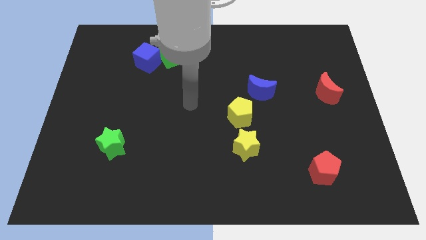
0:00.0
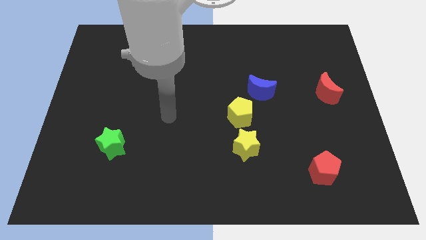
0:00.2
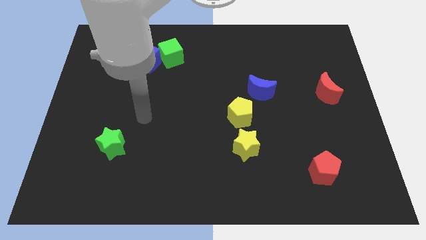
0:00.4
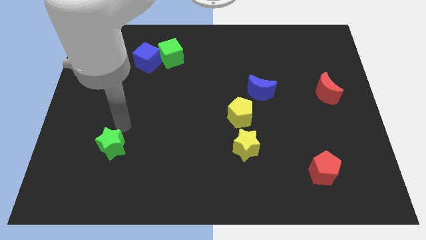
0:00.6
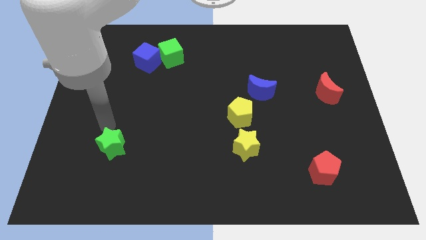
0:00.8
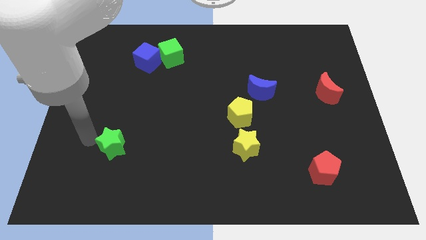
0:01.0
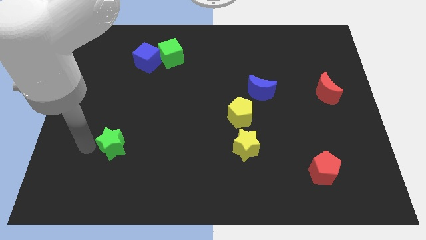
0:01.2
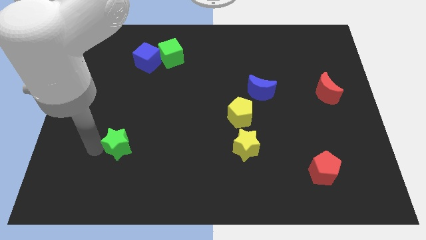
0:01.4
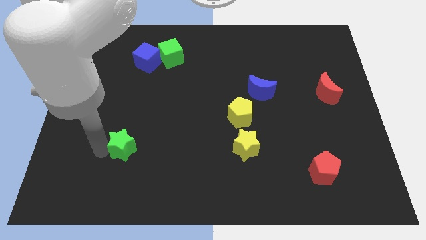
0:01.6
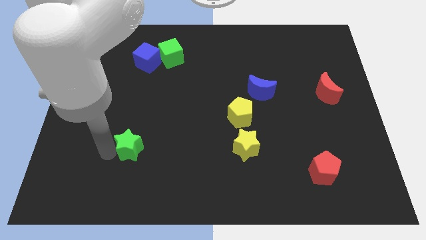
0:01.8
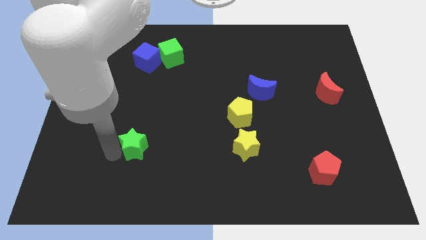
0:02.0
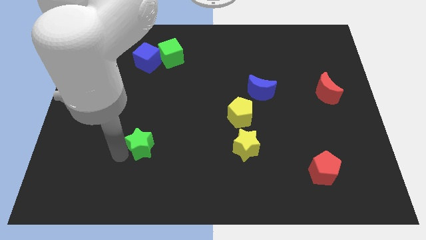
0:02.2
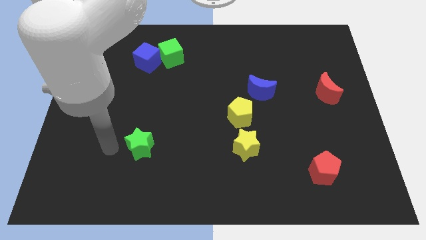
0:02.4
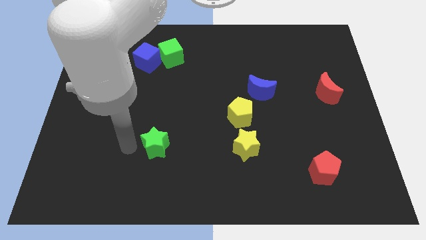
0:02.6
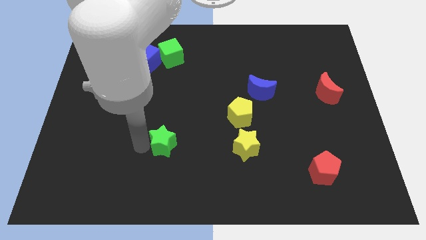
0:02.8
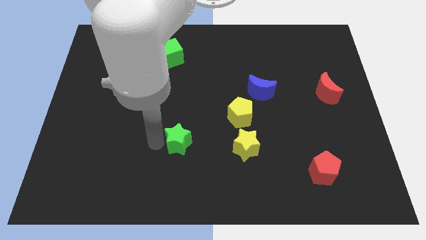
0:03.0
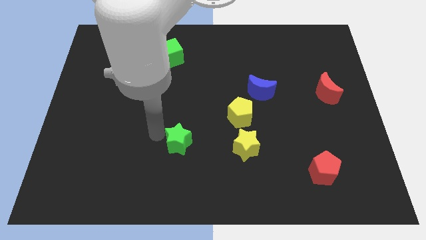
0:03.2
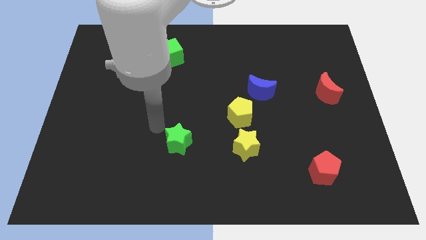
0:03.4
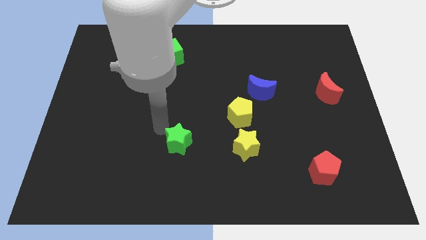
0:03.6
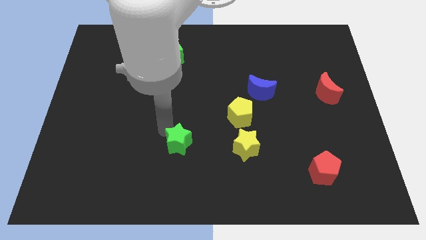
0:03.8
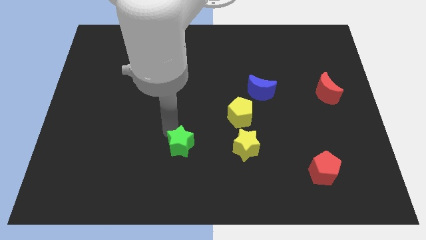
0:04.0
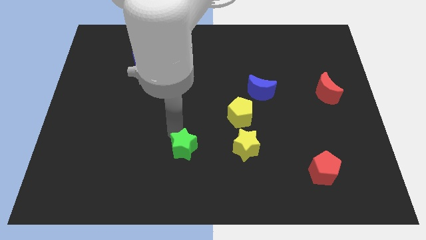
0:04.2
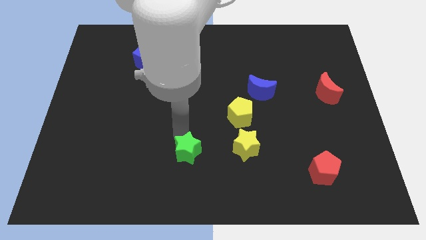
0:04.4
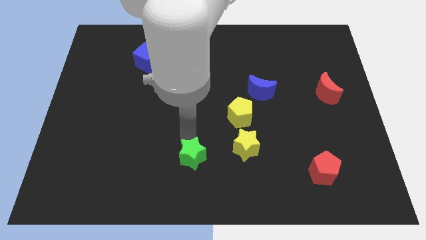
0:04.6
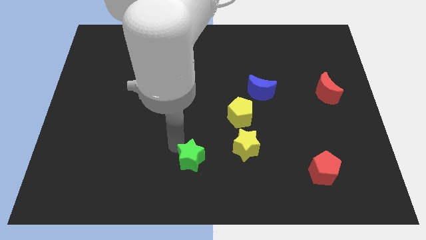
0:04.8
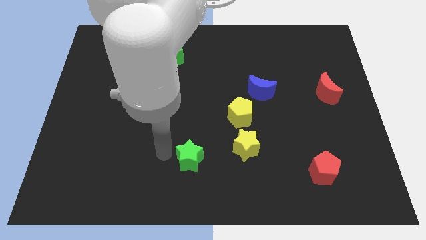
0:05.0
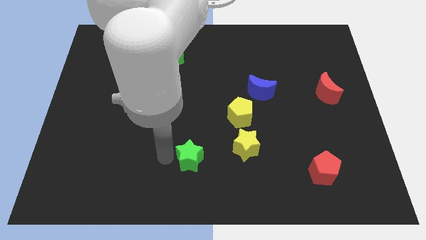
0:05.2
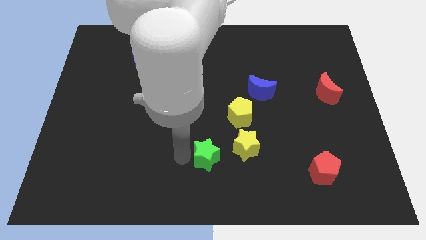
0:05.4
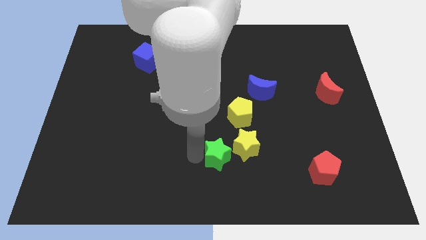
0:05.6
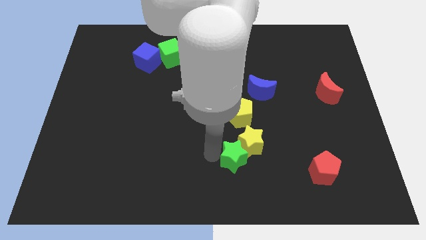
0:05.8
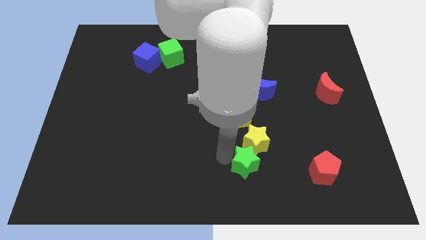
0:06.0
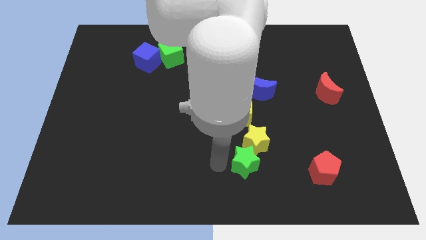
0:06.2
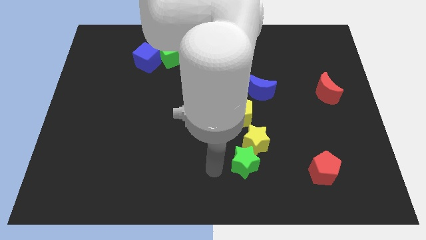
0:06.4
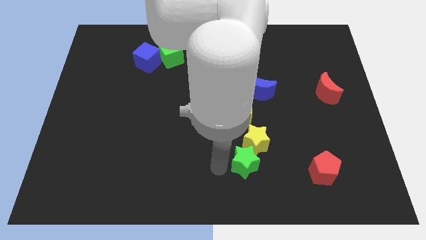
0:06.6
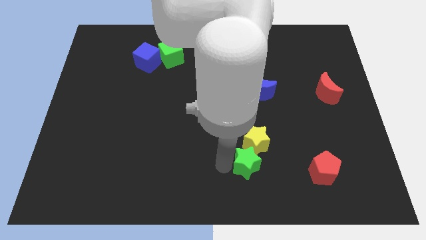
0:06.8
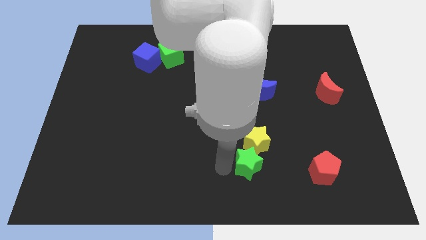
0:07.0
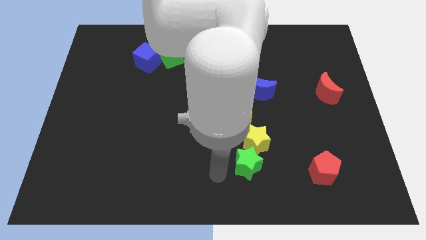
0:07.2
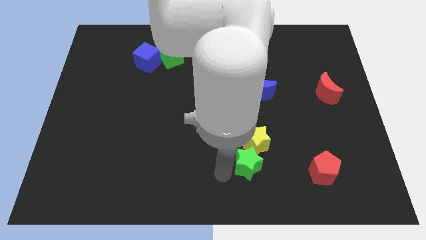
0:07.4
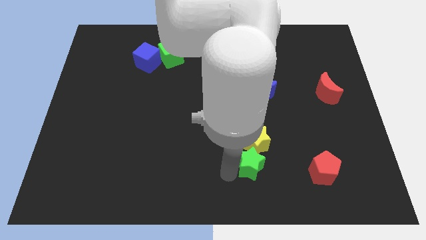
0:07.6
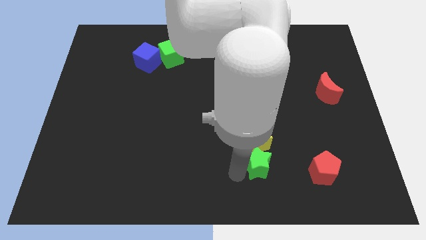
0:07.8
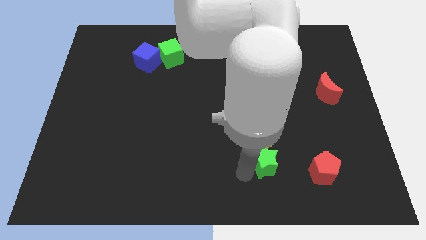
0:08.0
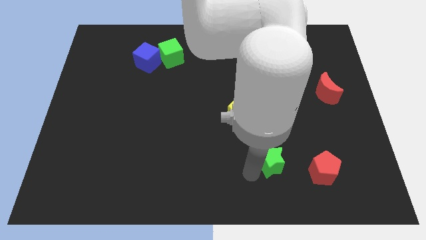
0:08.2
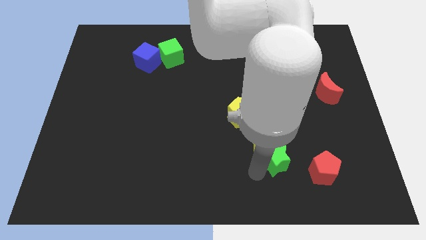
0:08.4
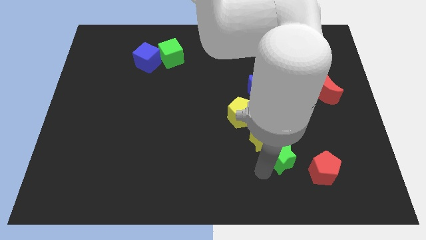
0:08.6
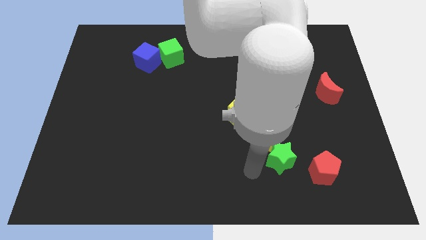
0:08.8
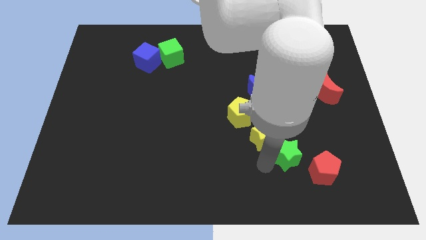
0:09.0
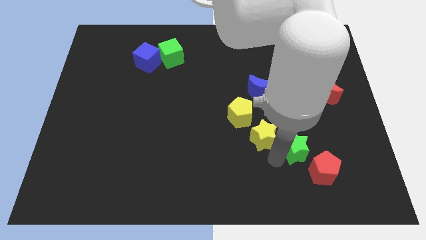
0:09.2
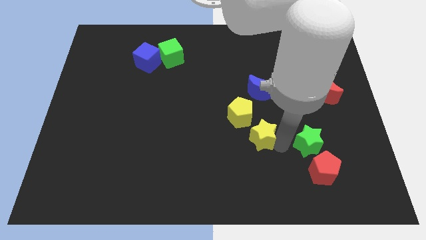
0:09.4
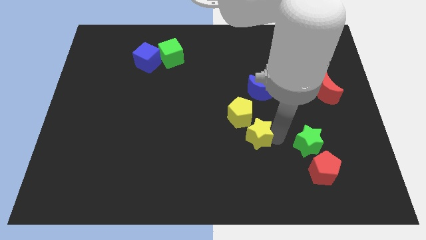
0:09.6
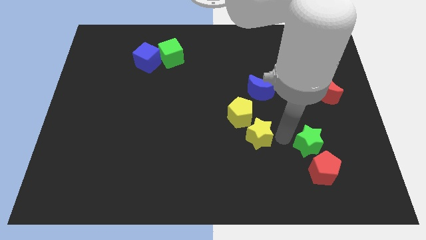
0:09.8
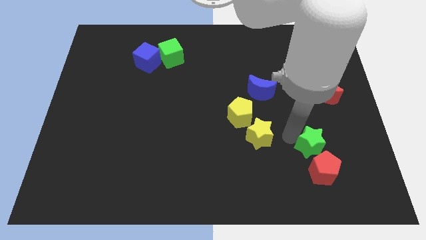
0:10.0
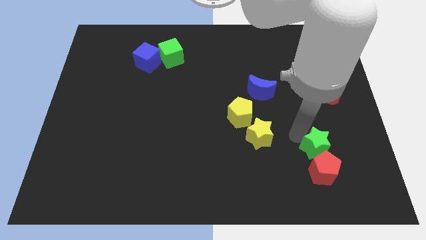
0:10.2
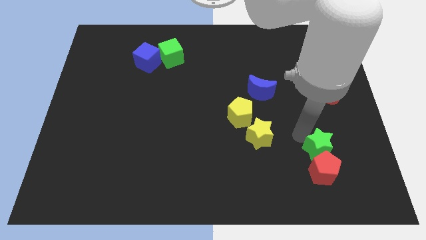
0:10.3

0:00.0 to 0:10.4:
move the green star to the top right side of the red pentagon

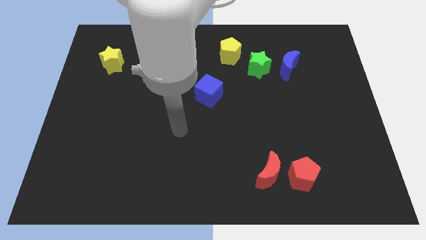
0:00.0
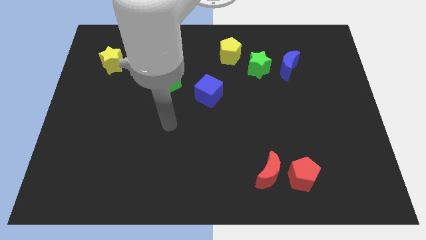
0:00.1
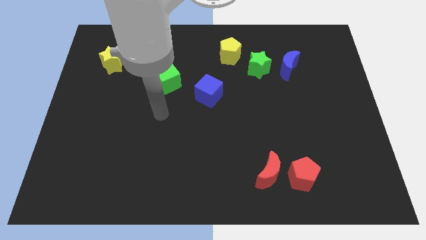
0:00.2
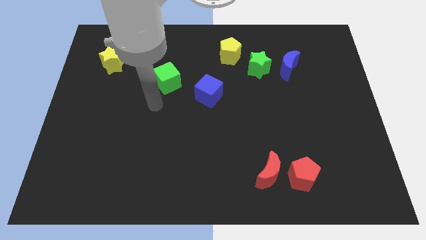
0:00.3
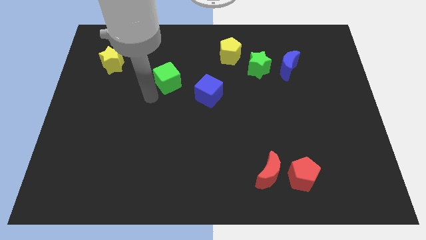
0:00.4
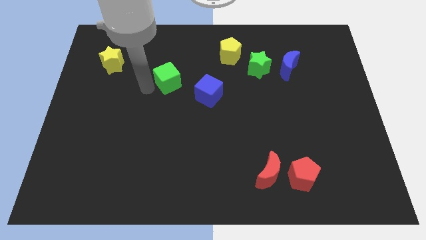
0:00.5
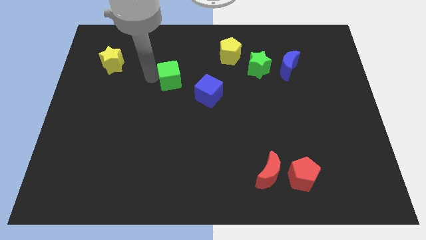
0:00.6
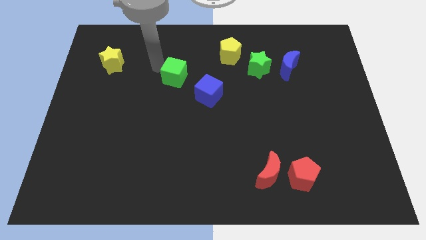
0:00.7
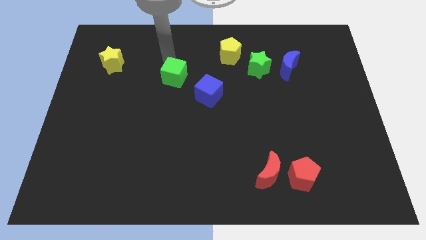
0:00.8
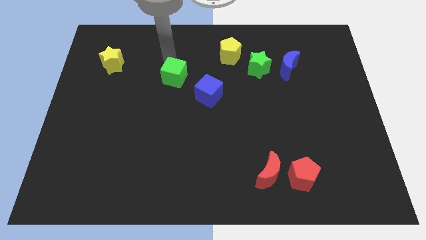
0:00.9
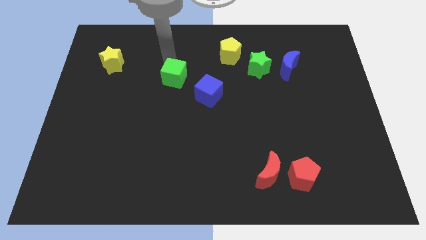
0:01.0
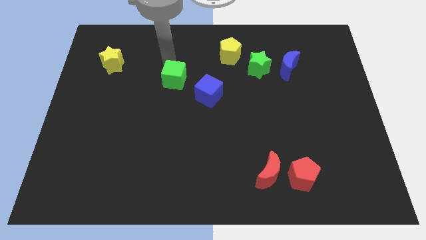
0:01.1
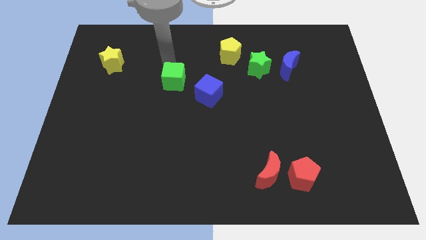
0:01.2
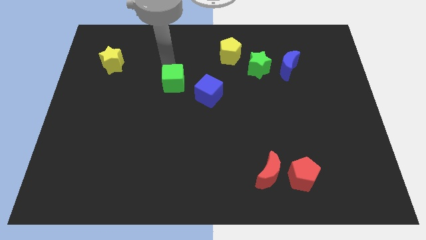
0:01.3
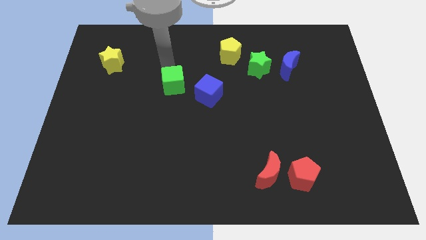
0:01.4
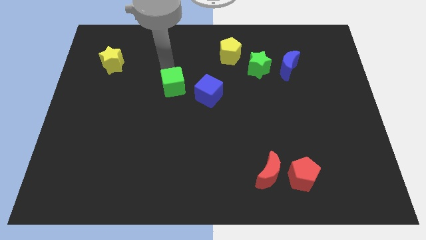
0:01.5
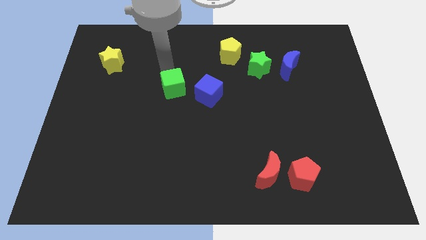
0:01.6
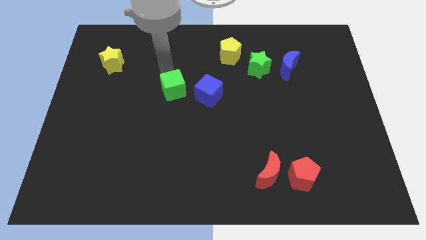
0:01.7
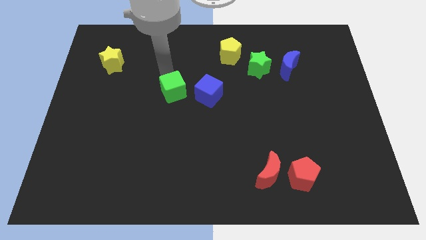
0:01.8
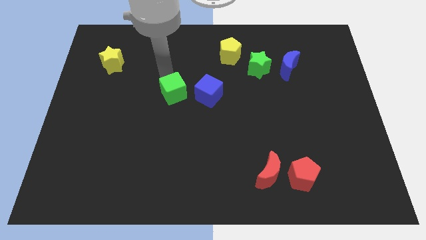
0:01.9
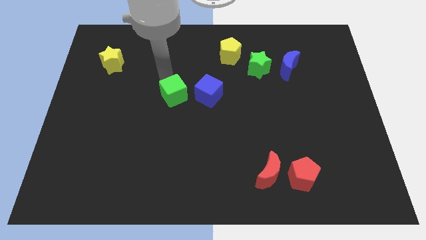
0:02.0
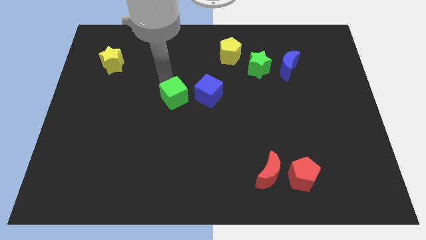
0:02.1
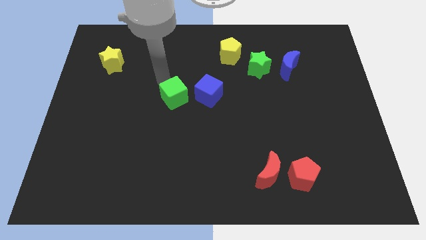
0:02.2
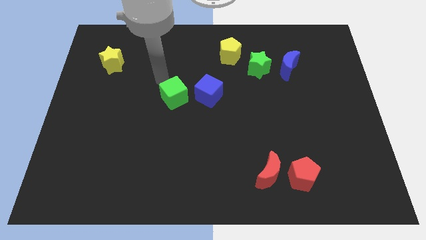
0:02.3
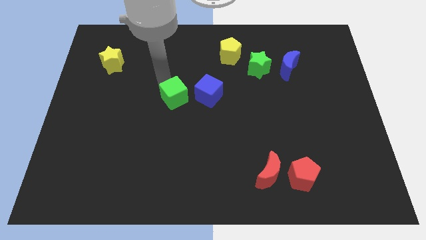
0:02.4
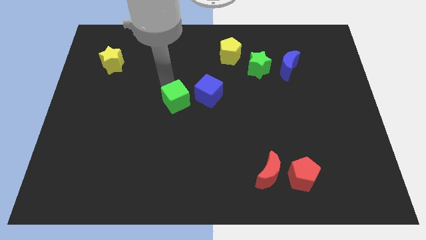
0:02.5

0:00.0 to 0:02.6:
move the green cube diagonally down and to the left of the blue cube
